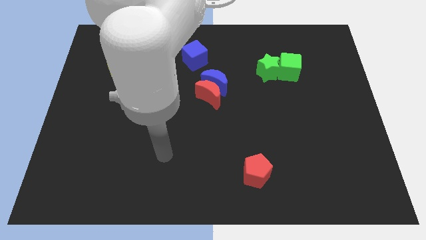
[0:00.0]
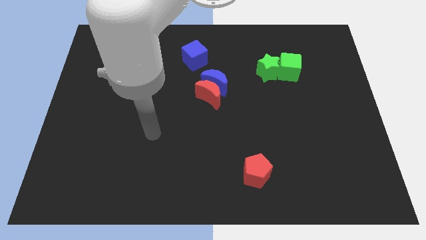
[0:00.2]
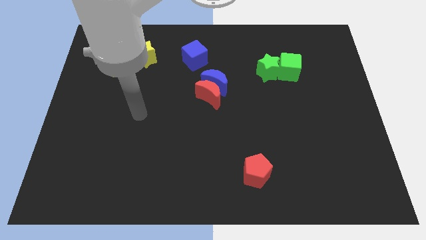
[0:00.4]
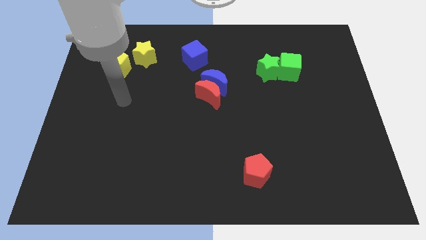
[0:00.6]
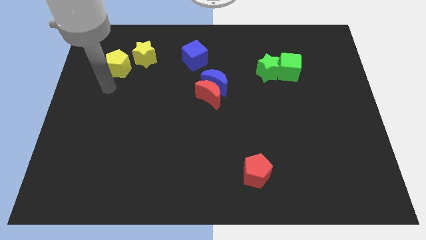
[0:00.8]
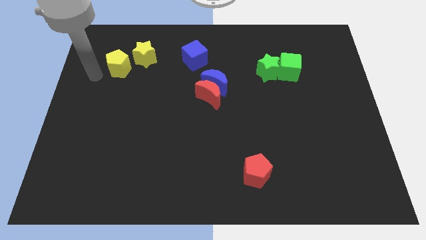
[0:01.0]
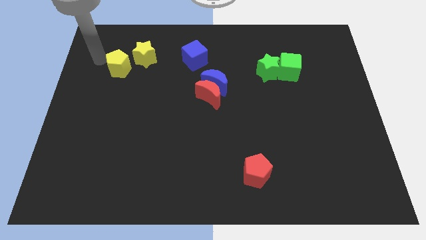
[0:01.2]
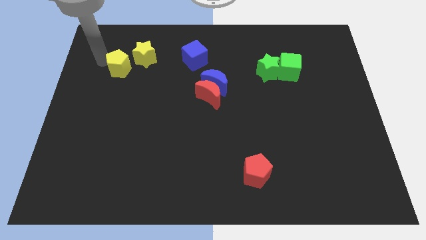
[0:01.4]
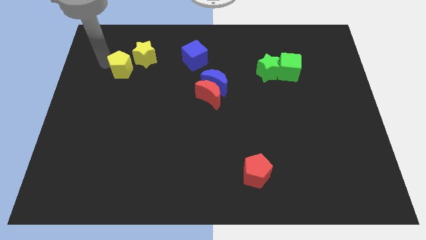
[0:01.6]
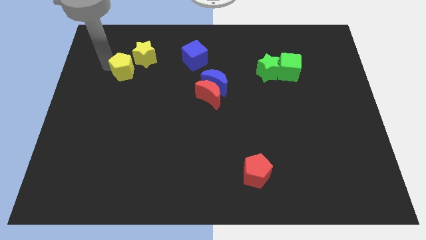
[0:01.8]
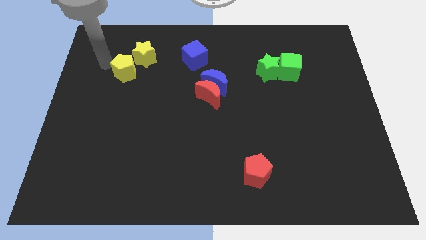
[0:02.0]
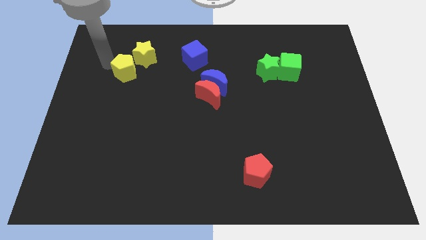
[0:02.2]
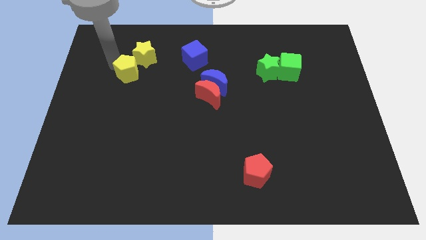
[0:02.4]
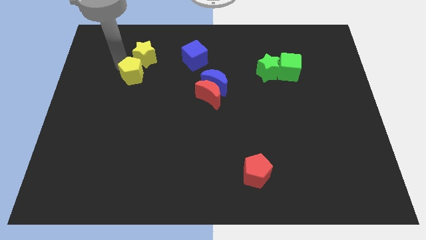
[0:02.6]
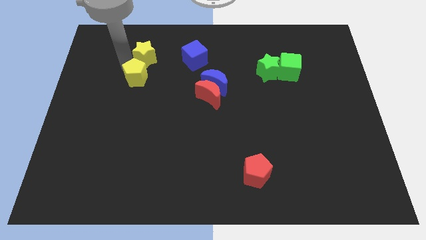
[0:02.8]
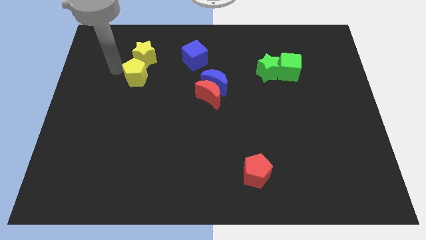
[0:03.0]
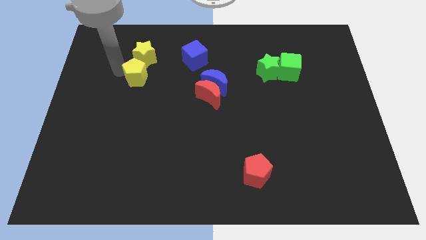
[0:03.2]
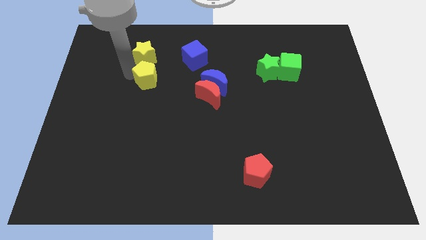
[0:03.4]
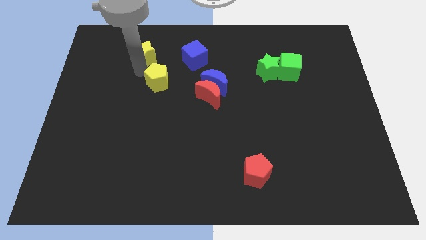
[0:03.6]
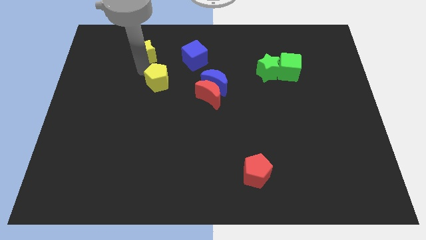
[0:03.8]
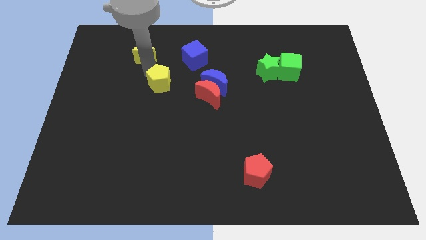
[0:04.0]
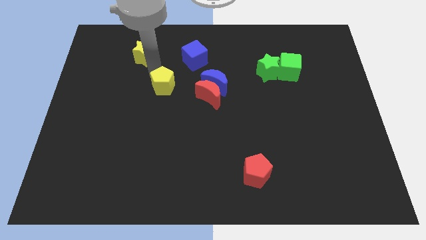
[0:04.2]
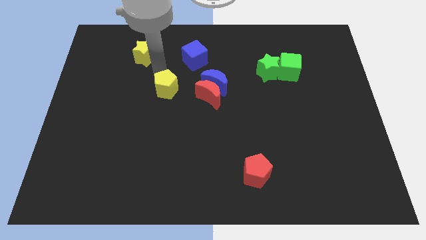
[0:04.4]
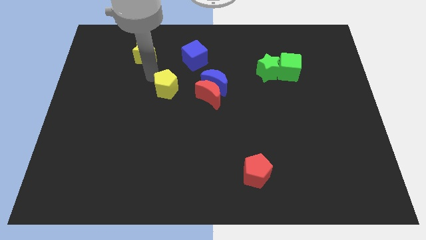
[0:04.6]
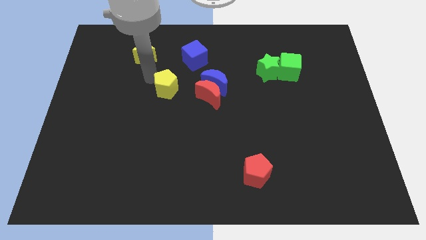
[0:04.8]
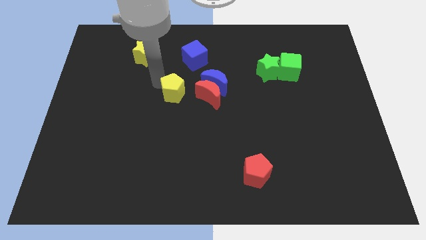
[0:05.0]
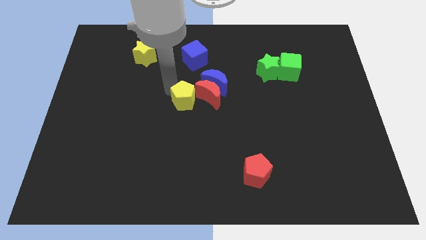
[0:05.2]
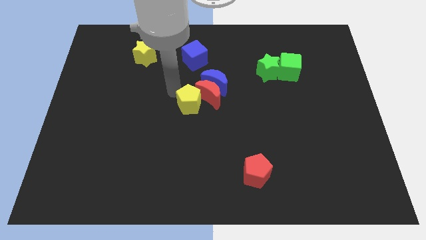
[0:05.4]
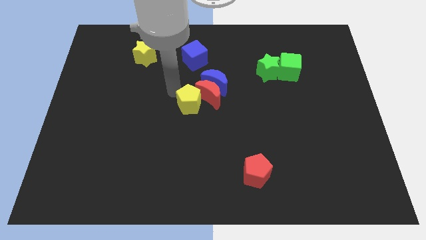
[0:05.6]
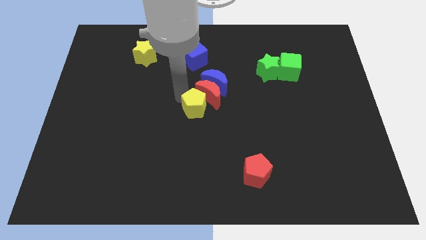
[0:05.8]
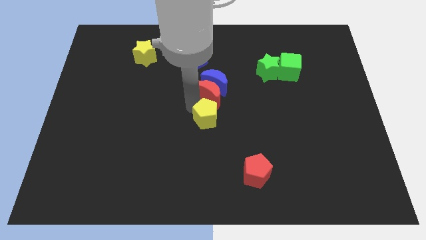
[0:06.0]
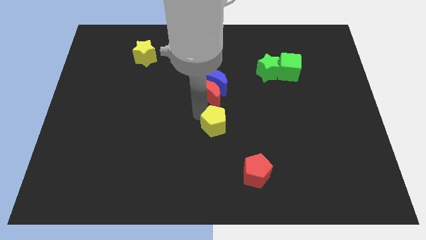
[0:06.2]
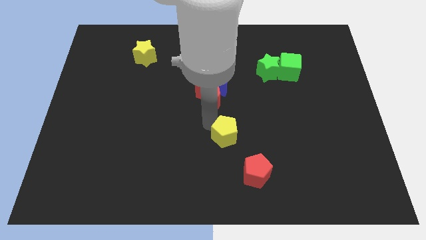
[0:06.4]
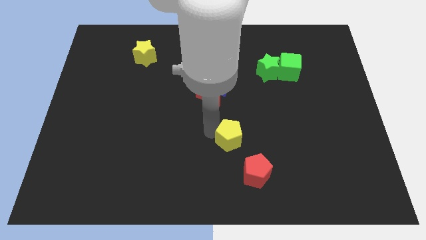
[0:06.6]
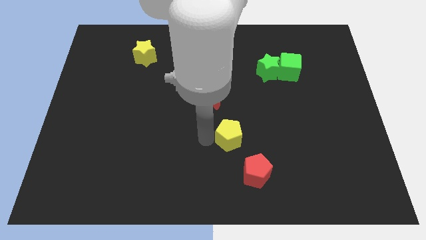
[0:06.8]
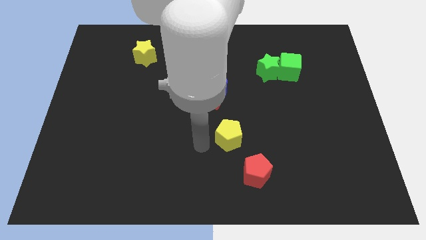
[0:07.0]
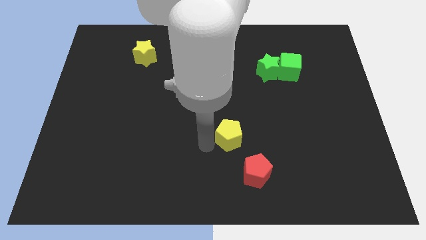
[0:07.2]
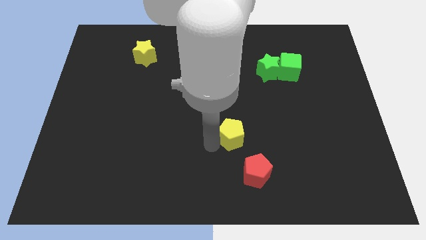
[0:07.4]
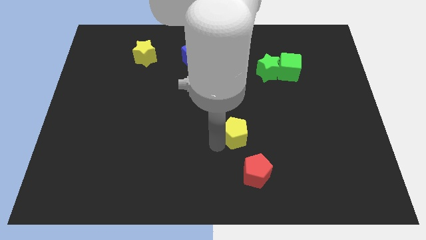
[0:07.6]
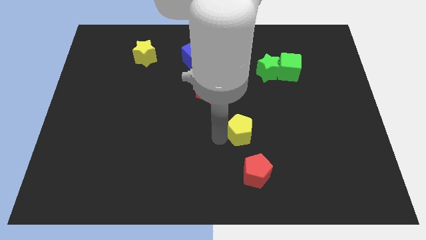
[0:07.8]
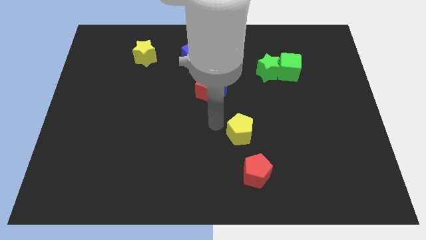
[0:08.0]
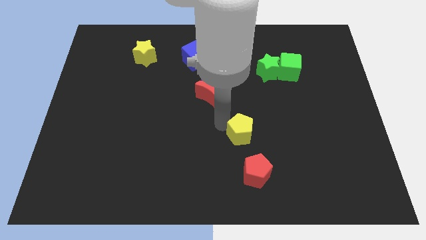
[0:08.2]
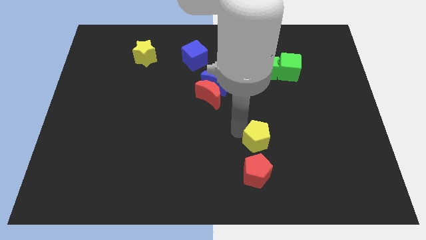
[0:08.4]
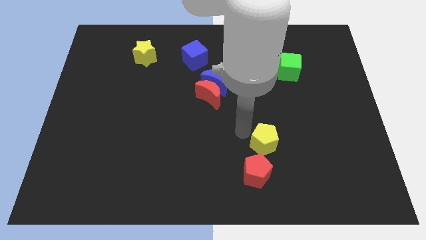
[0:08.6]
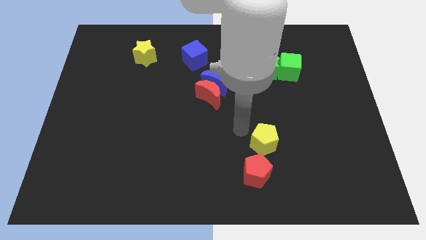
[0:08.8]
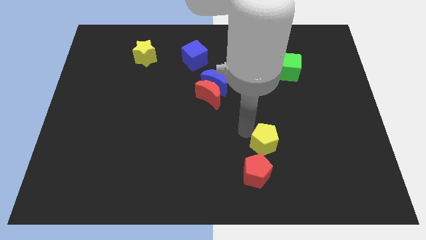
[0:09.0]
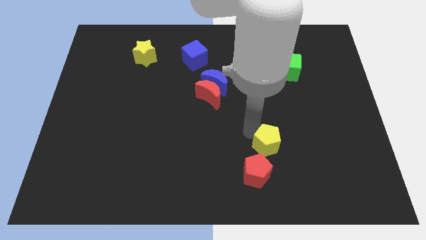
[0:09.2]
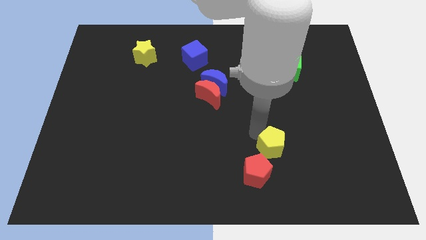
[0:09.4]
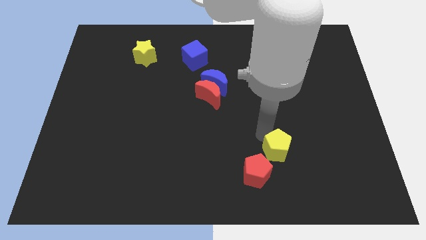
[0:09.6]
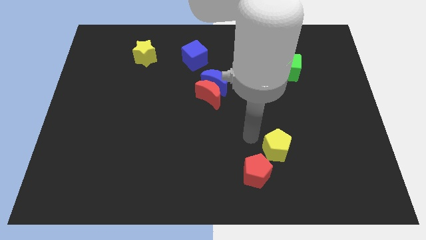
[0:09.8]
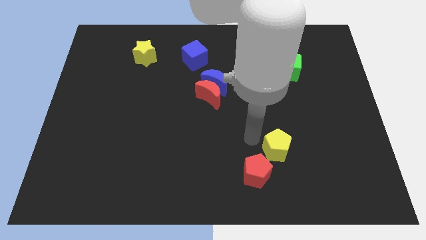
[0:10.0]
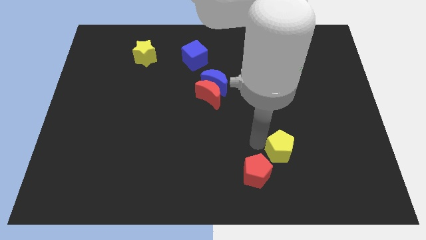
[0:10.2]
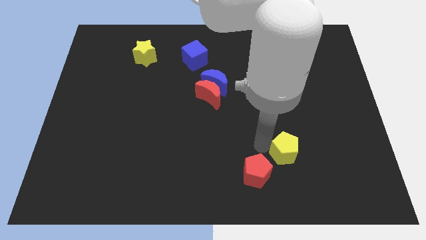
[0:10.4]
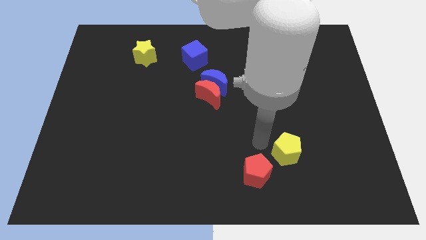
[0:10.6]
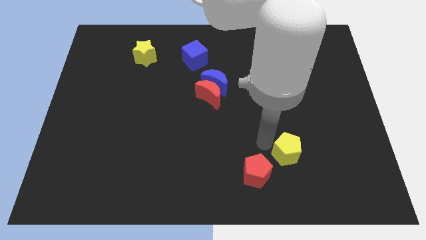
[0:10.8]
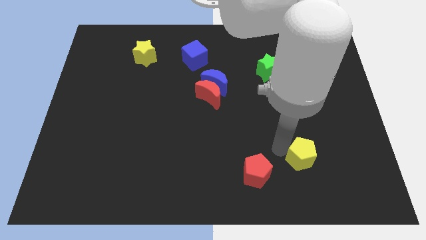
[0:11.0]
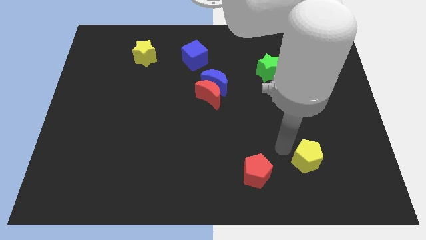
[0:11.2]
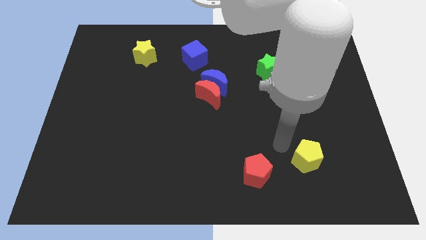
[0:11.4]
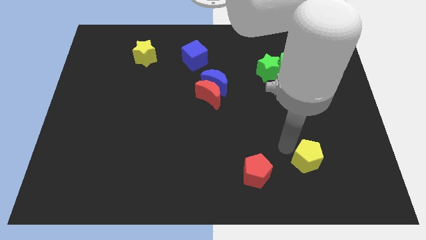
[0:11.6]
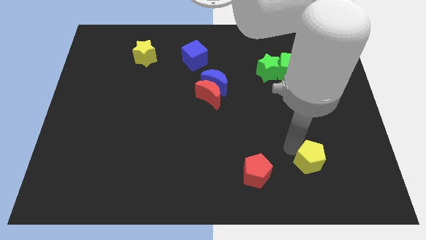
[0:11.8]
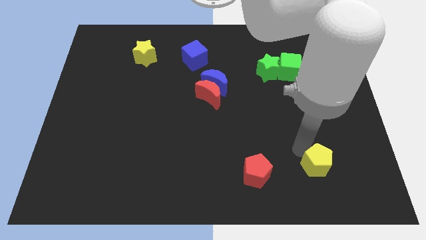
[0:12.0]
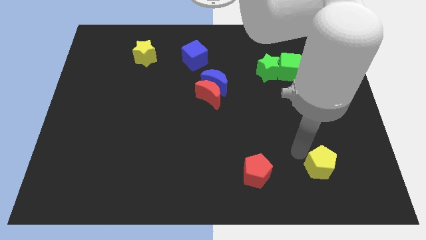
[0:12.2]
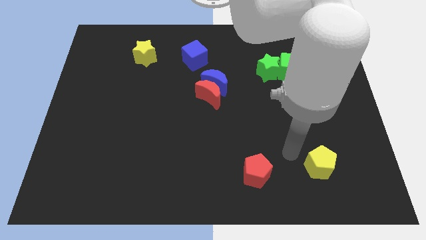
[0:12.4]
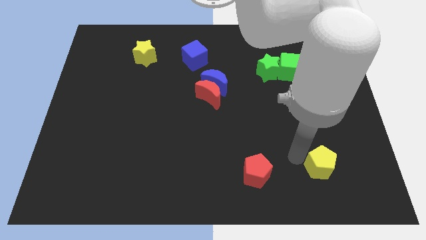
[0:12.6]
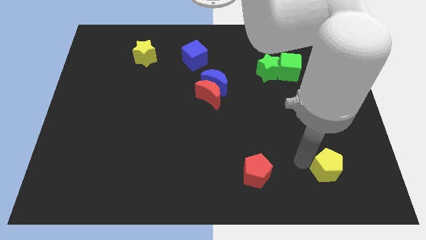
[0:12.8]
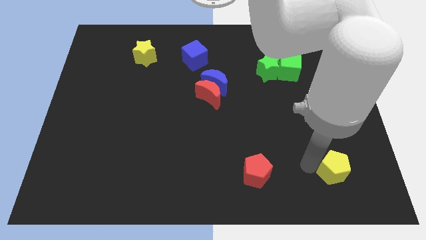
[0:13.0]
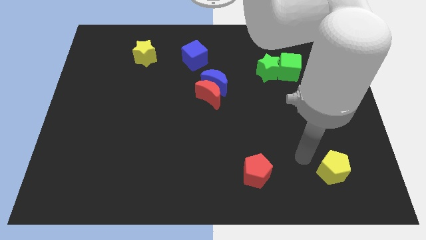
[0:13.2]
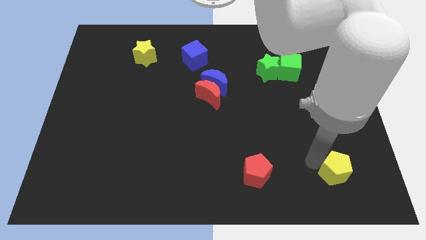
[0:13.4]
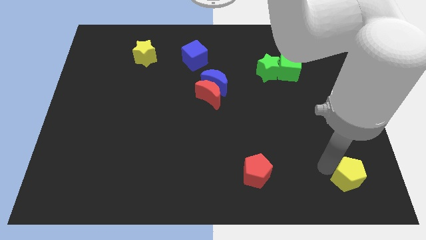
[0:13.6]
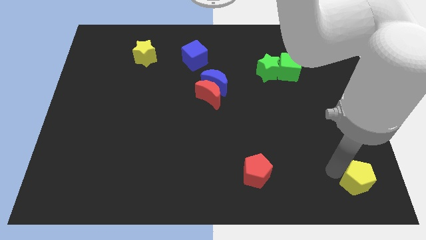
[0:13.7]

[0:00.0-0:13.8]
slide the yellow pentagon to the bottom right
